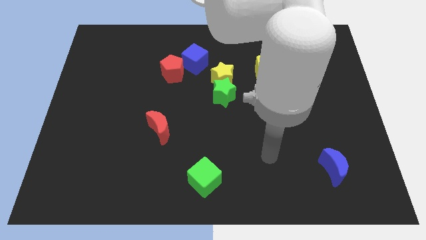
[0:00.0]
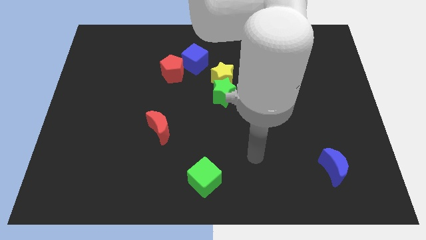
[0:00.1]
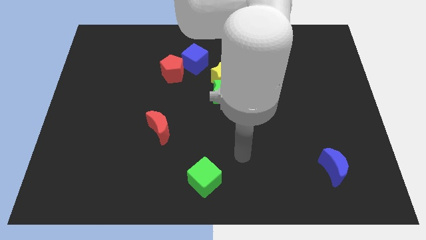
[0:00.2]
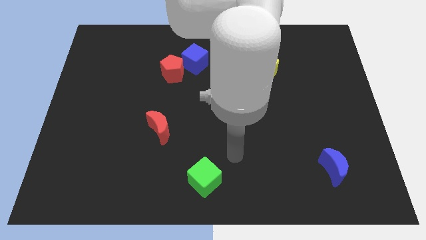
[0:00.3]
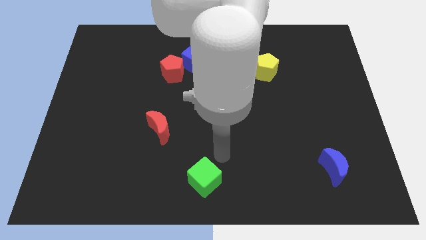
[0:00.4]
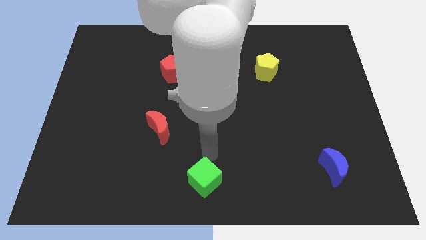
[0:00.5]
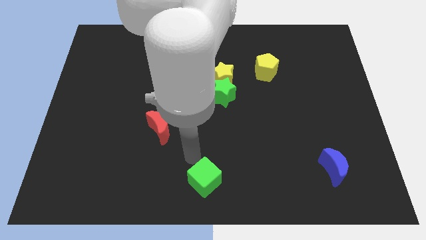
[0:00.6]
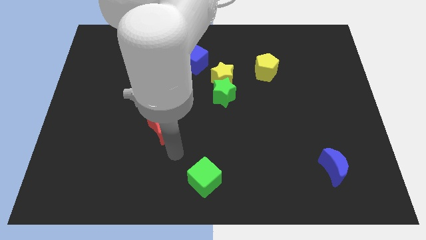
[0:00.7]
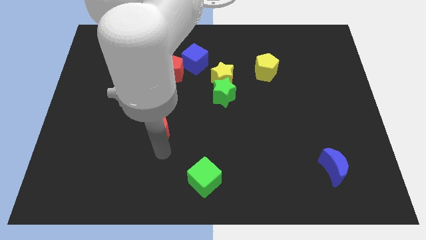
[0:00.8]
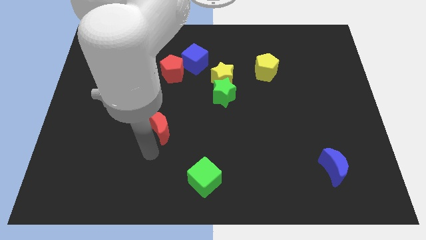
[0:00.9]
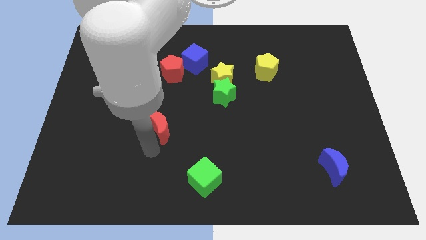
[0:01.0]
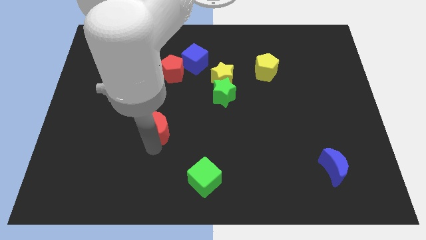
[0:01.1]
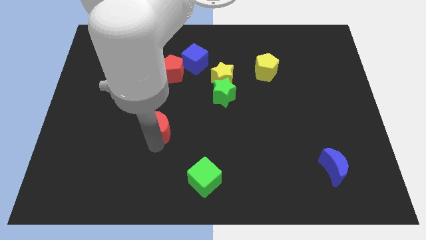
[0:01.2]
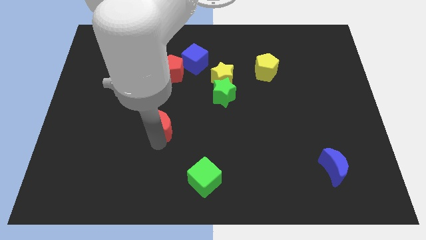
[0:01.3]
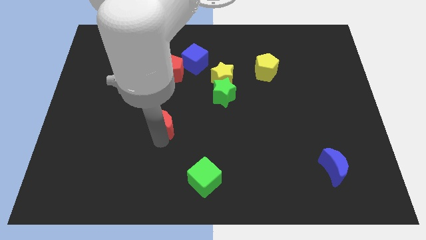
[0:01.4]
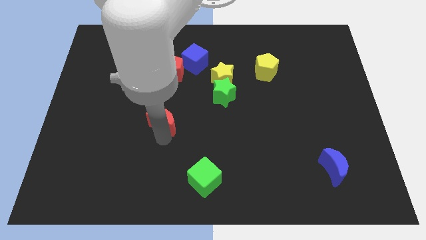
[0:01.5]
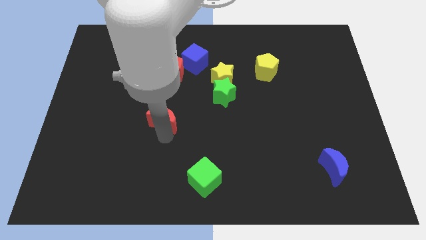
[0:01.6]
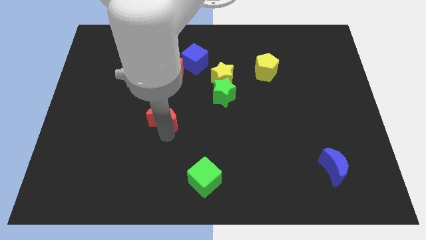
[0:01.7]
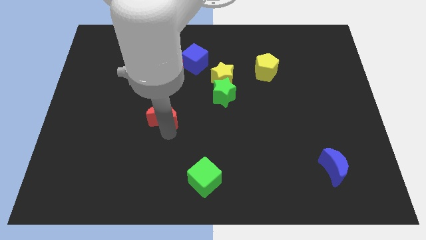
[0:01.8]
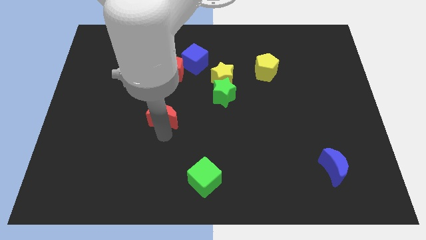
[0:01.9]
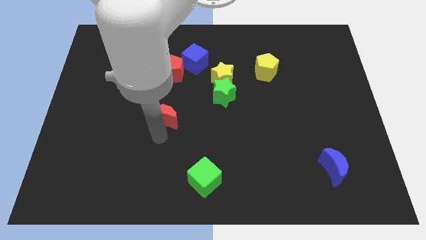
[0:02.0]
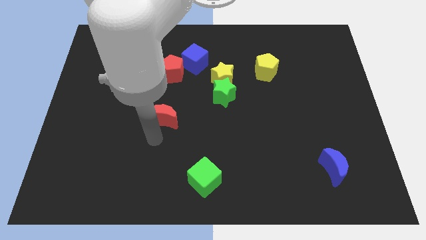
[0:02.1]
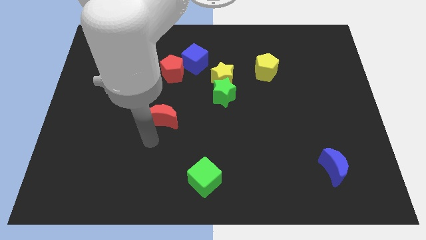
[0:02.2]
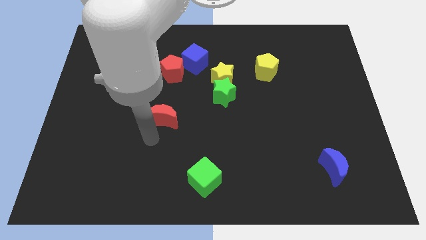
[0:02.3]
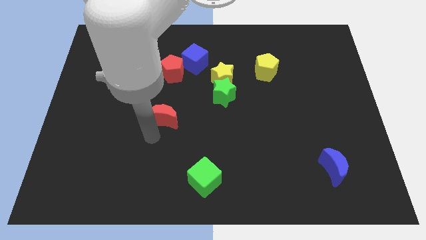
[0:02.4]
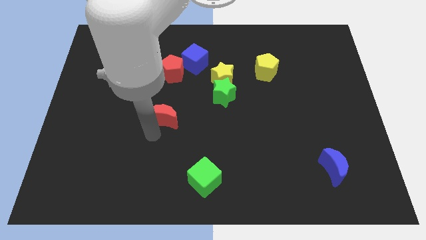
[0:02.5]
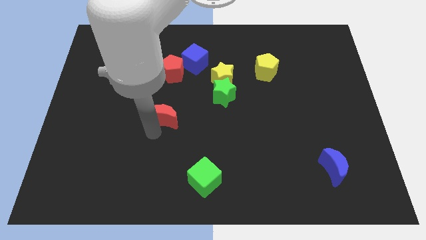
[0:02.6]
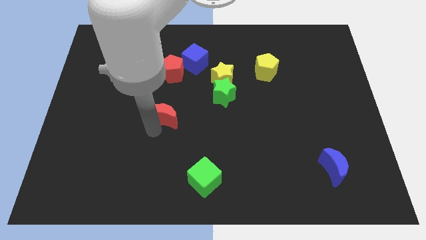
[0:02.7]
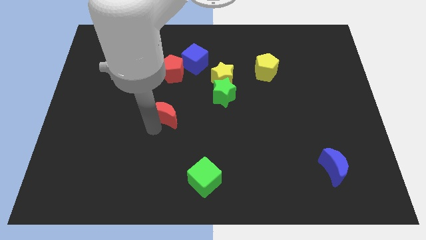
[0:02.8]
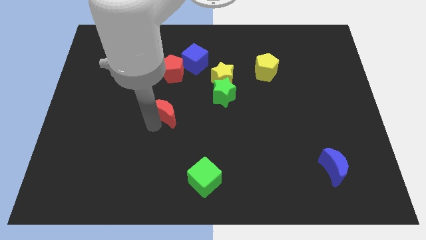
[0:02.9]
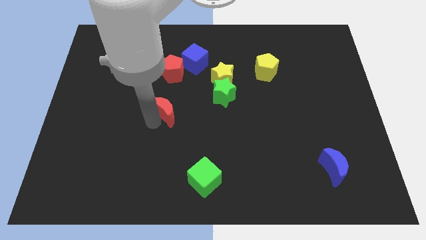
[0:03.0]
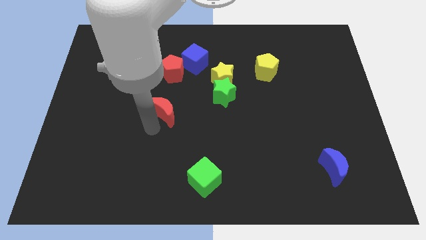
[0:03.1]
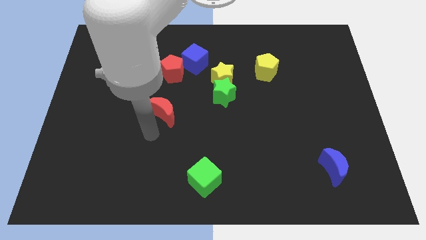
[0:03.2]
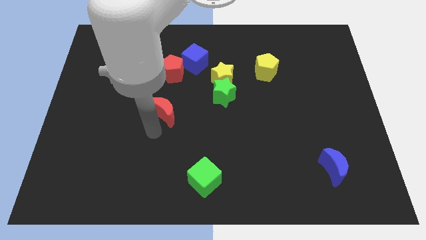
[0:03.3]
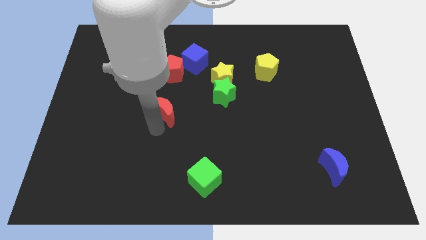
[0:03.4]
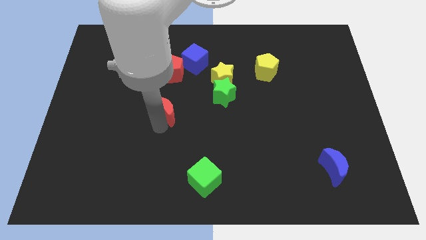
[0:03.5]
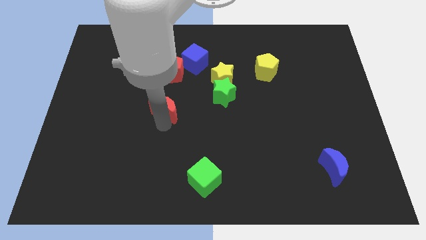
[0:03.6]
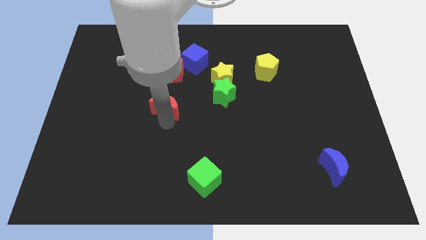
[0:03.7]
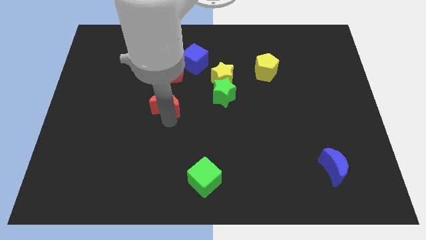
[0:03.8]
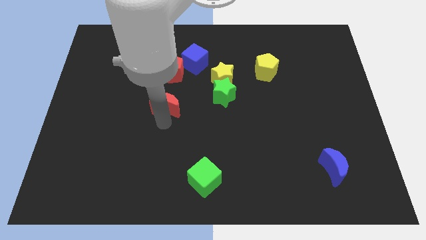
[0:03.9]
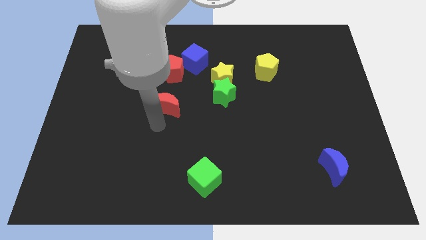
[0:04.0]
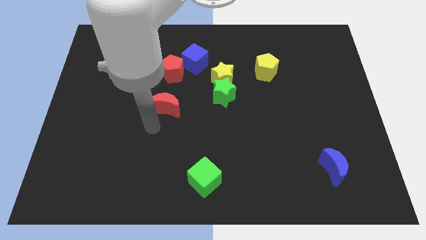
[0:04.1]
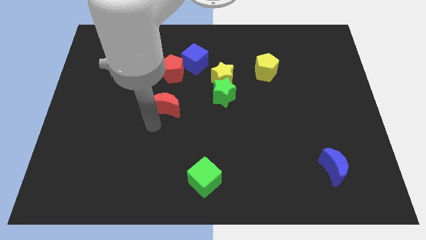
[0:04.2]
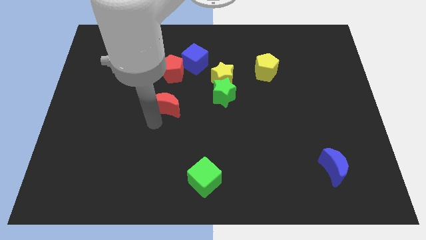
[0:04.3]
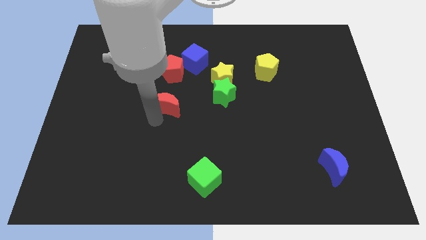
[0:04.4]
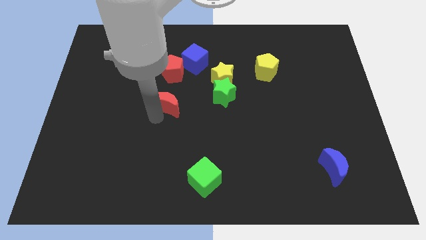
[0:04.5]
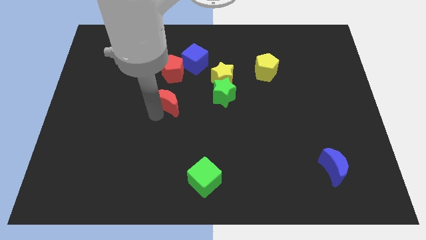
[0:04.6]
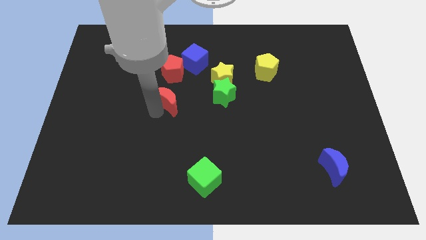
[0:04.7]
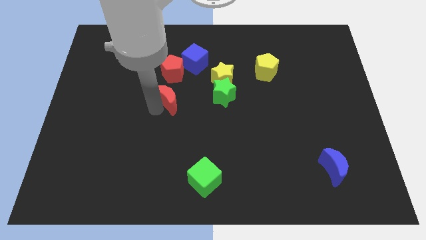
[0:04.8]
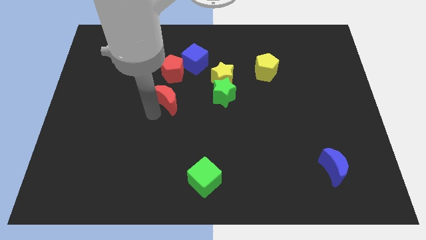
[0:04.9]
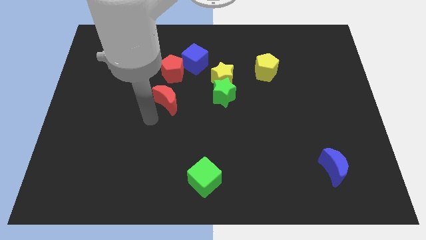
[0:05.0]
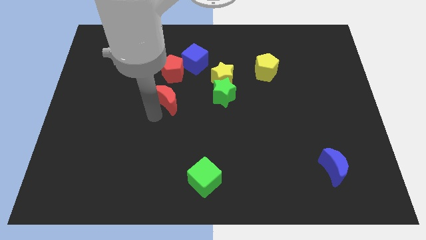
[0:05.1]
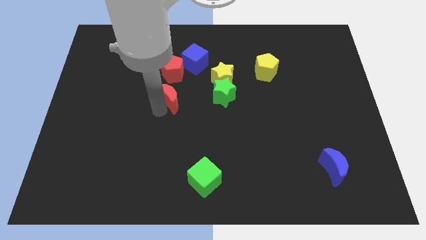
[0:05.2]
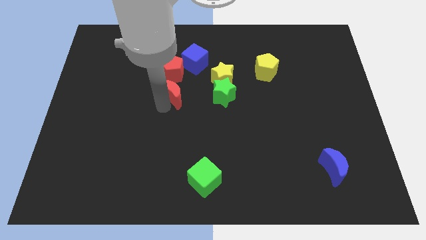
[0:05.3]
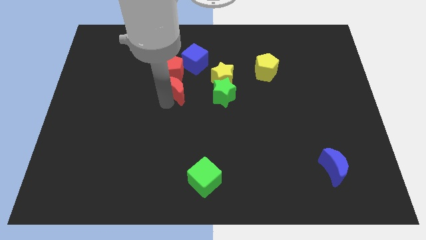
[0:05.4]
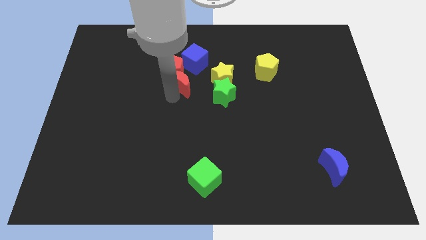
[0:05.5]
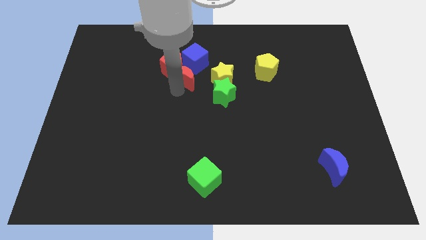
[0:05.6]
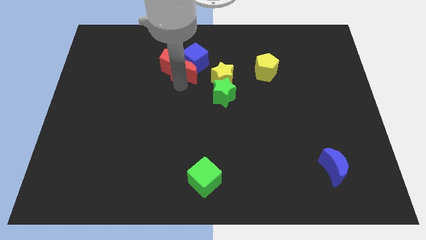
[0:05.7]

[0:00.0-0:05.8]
push the red moon close to the blue cube

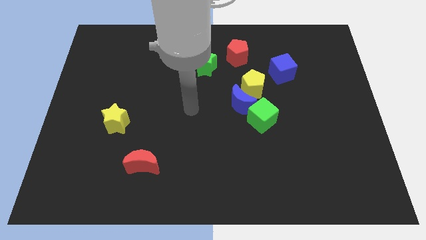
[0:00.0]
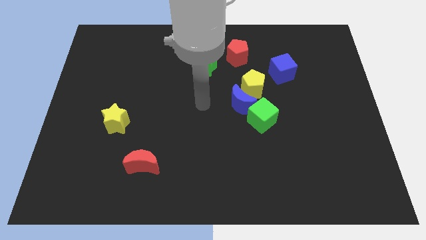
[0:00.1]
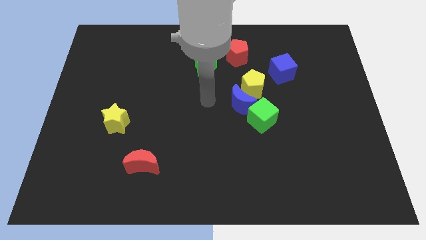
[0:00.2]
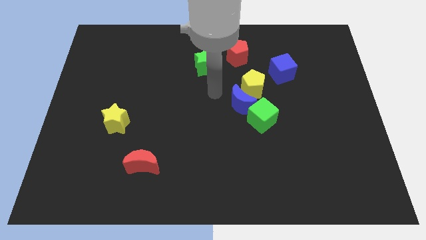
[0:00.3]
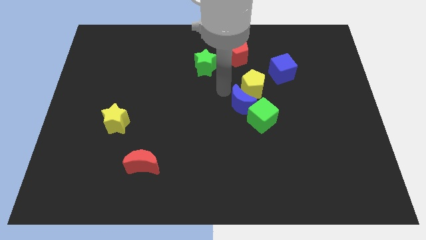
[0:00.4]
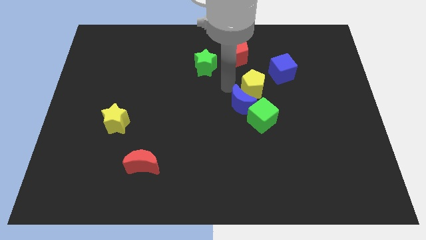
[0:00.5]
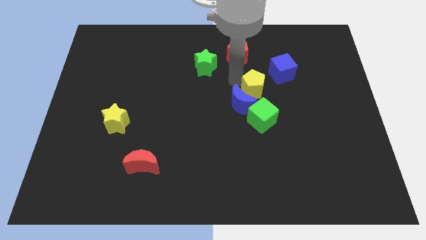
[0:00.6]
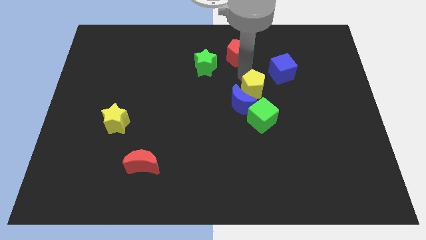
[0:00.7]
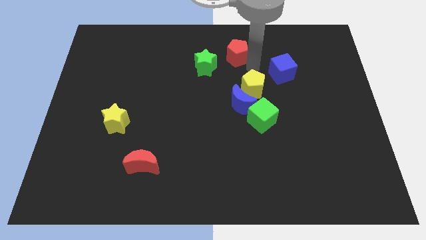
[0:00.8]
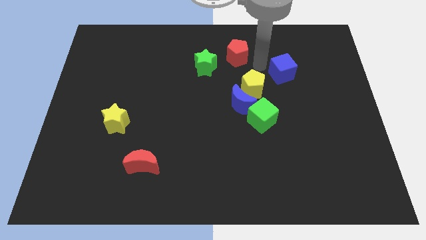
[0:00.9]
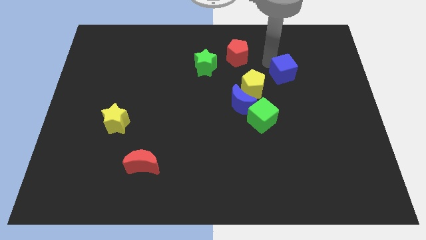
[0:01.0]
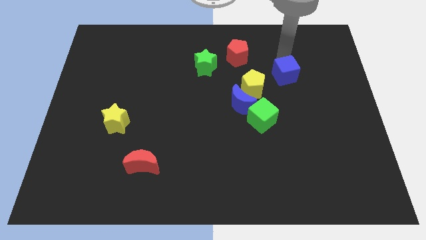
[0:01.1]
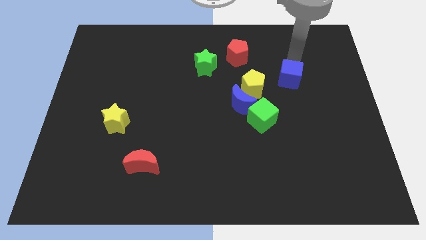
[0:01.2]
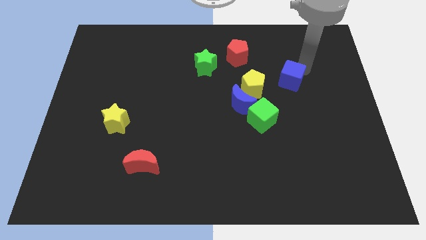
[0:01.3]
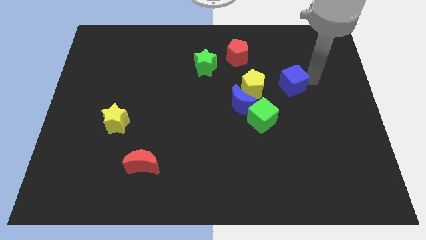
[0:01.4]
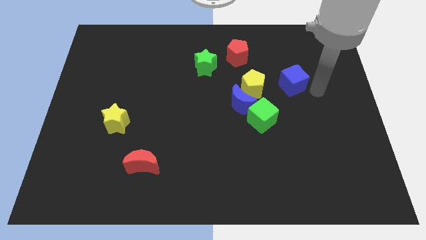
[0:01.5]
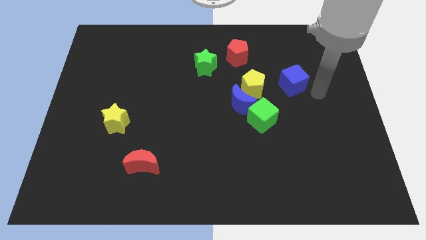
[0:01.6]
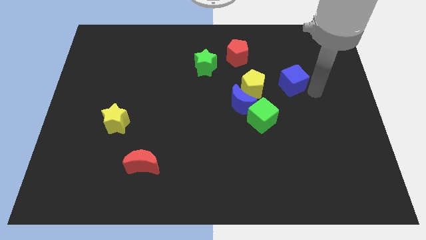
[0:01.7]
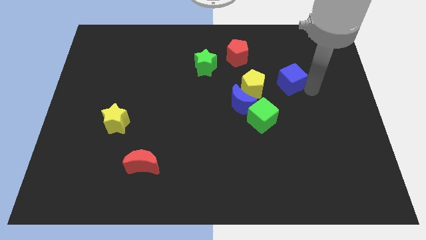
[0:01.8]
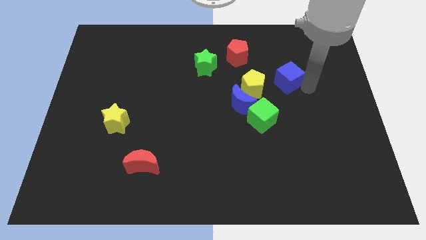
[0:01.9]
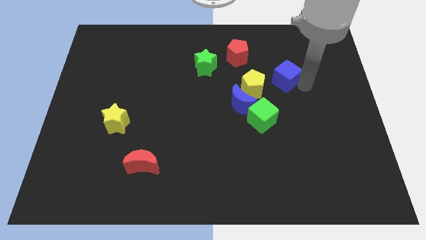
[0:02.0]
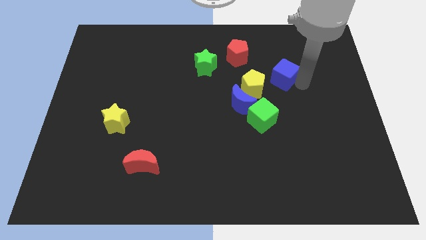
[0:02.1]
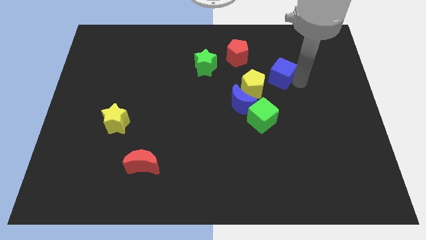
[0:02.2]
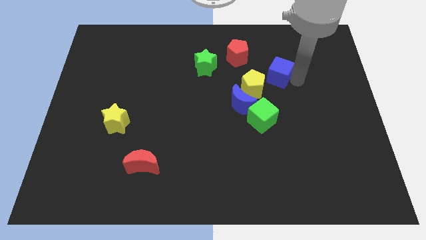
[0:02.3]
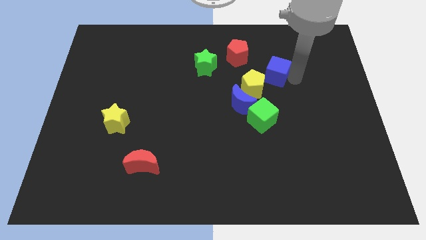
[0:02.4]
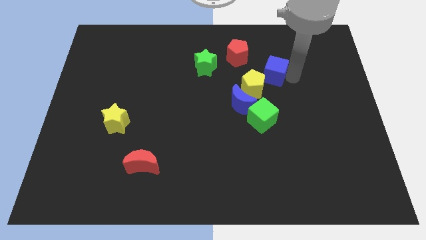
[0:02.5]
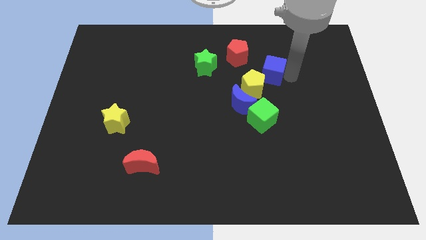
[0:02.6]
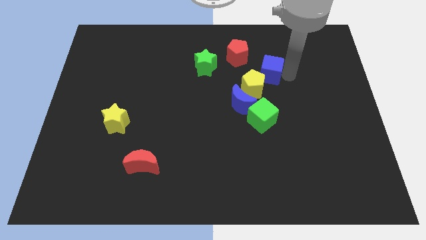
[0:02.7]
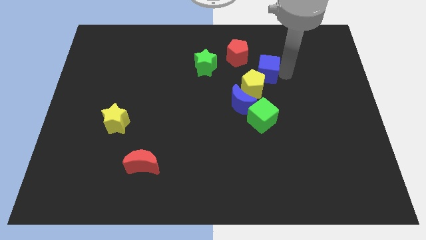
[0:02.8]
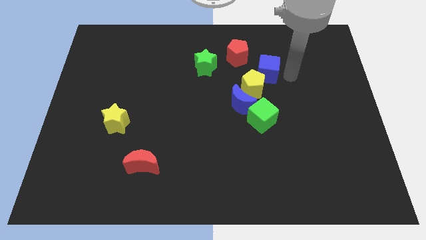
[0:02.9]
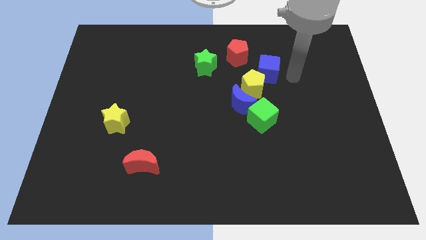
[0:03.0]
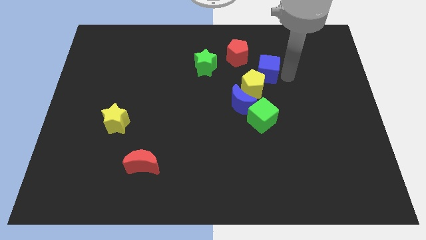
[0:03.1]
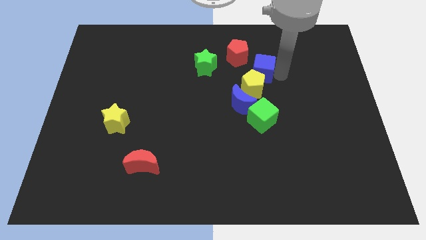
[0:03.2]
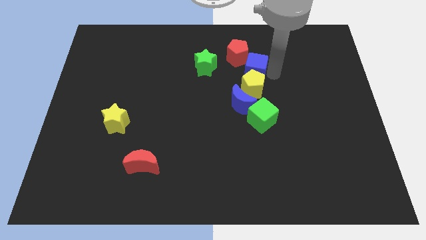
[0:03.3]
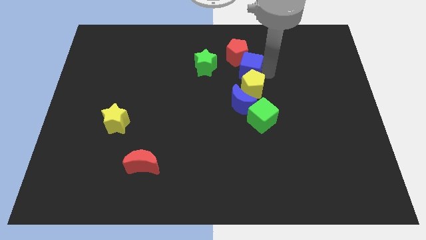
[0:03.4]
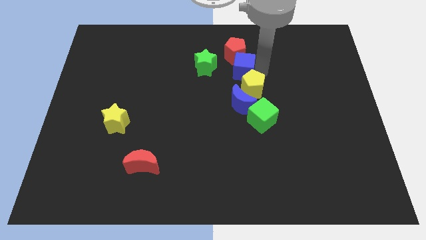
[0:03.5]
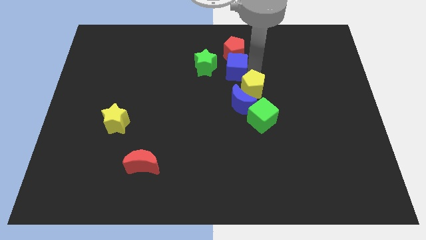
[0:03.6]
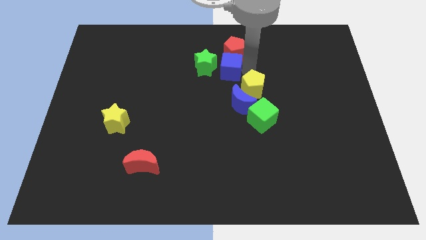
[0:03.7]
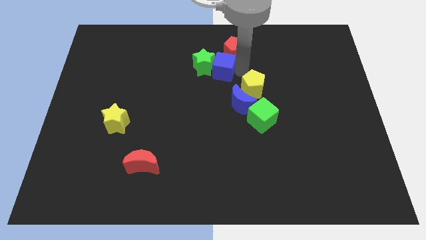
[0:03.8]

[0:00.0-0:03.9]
move the blue cube close to the green star
